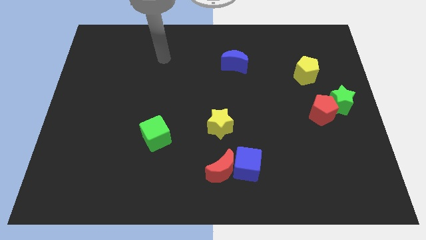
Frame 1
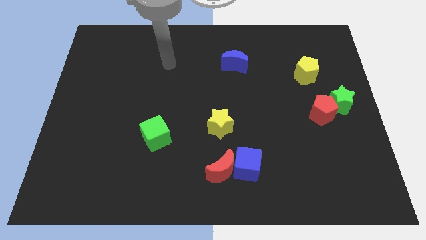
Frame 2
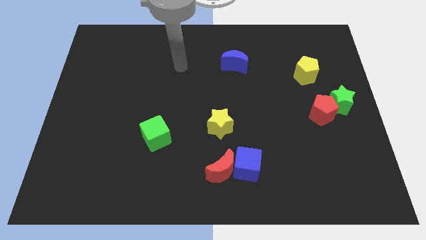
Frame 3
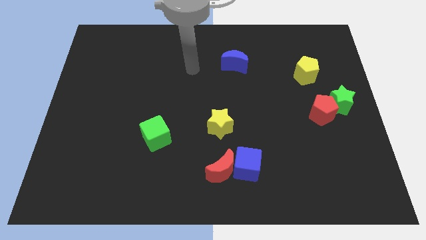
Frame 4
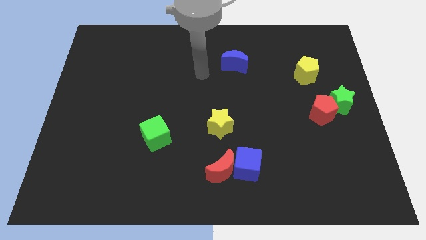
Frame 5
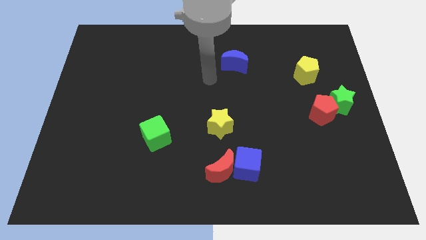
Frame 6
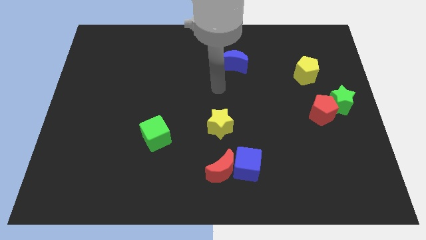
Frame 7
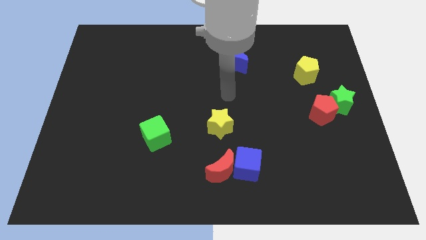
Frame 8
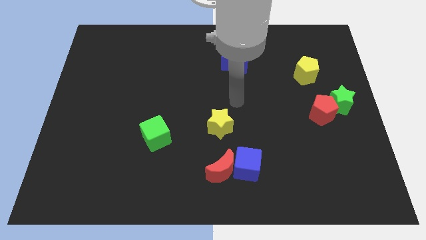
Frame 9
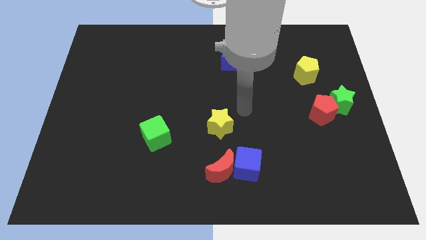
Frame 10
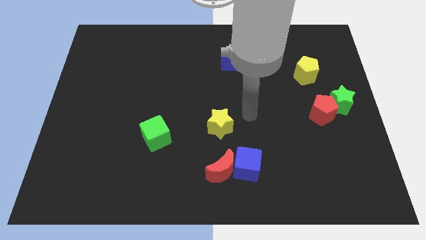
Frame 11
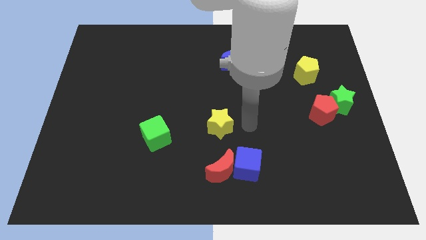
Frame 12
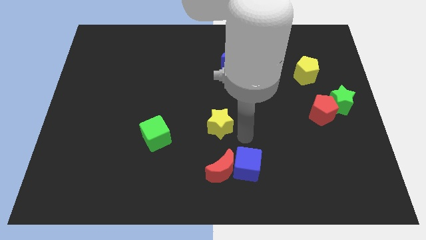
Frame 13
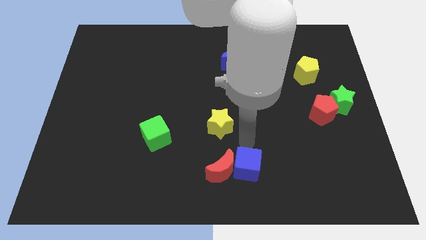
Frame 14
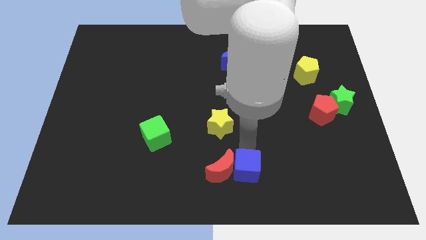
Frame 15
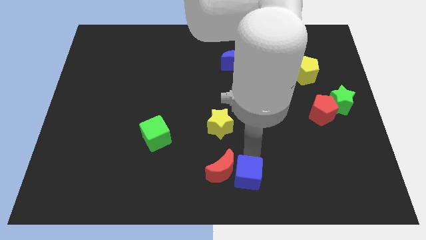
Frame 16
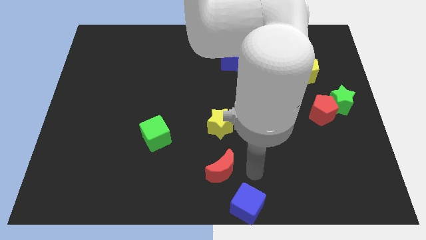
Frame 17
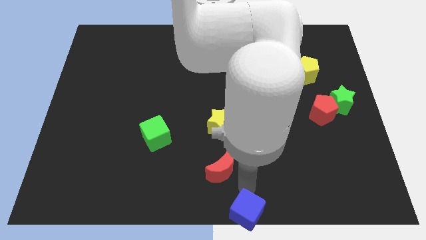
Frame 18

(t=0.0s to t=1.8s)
pull the red moon apart from the blue cube

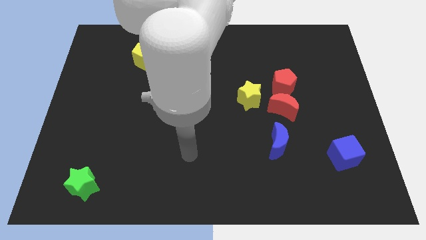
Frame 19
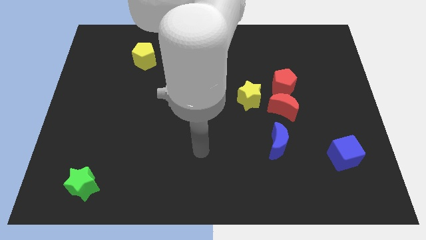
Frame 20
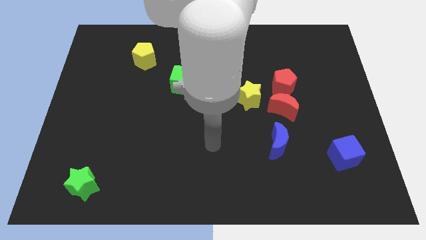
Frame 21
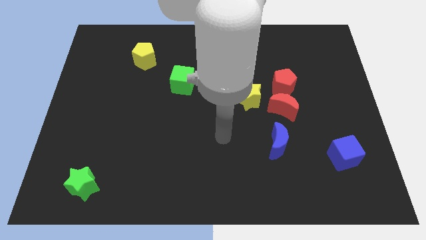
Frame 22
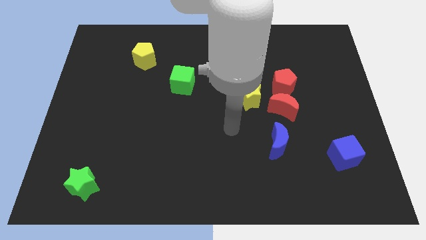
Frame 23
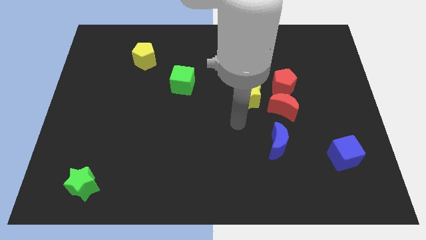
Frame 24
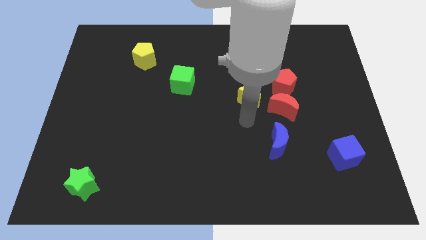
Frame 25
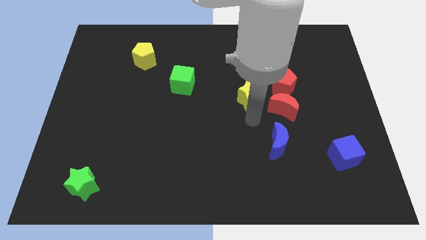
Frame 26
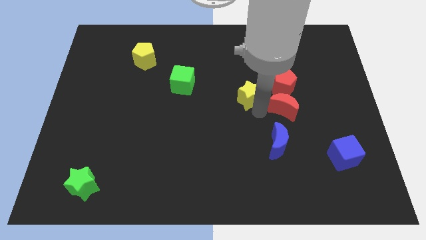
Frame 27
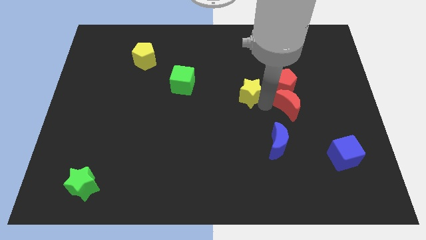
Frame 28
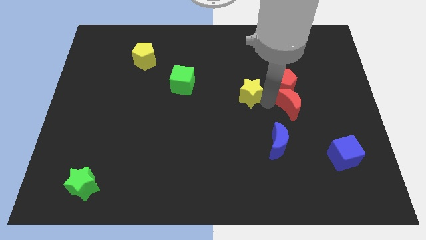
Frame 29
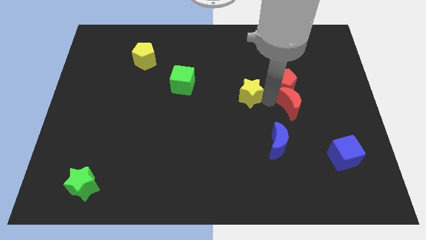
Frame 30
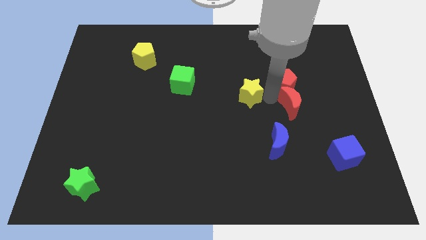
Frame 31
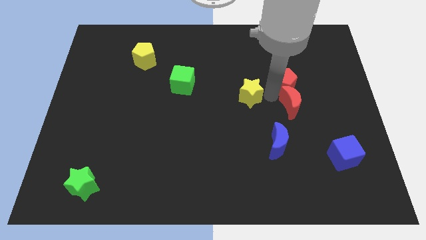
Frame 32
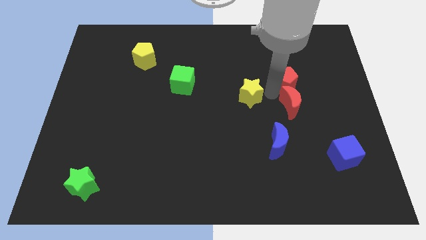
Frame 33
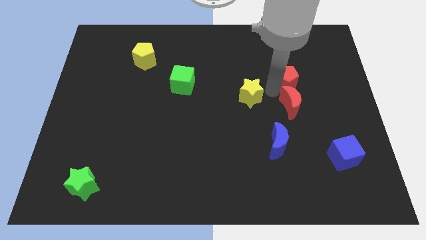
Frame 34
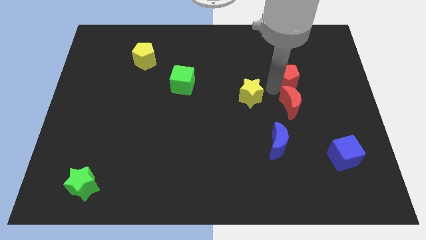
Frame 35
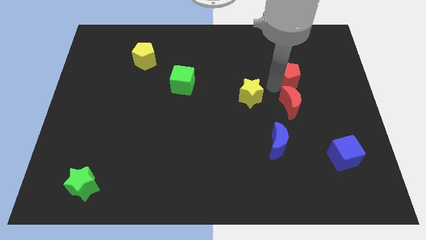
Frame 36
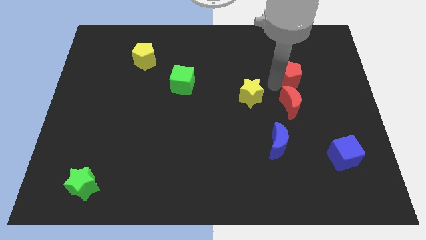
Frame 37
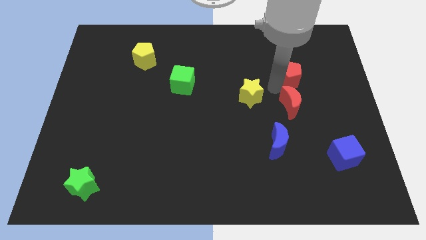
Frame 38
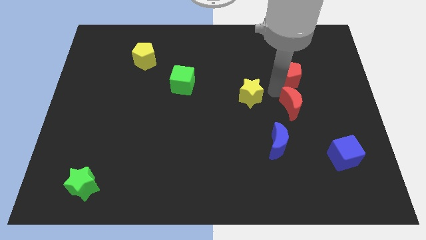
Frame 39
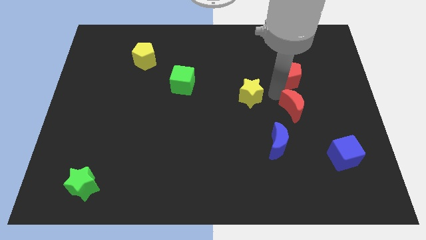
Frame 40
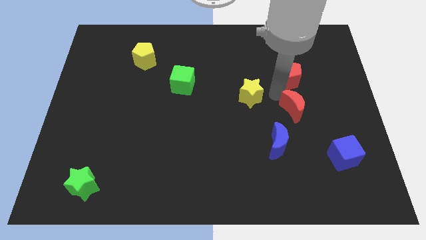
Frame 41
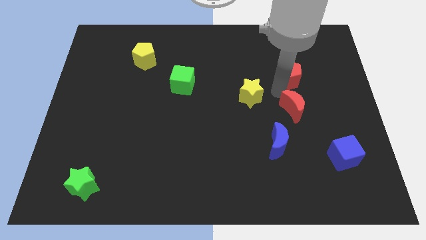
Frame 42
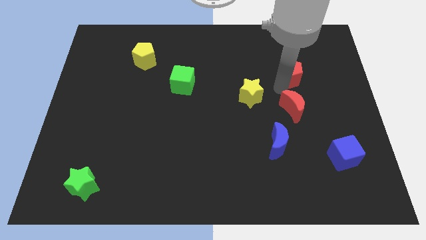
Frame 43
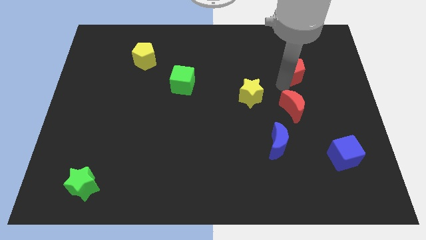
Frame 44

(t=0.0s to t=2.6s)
move the red pentagon away from the red moon and yellow star

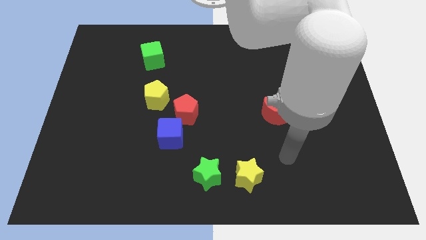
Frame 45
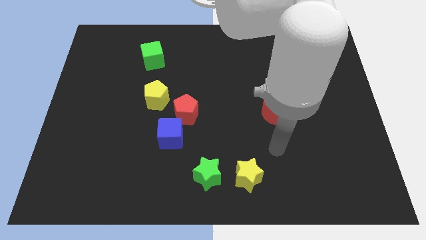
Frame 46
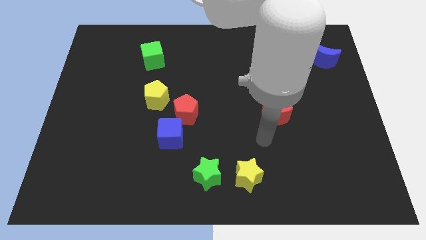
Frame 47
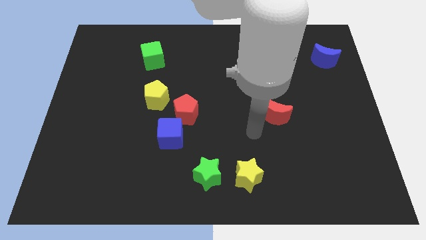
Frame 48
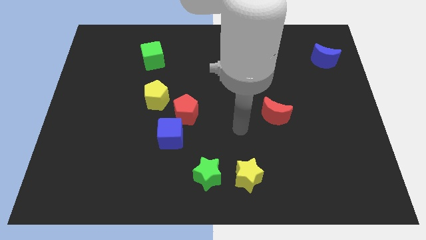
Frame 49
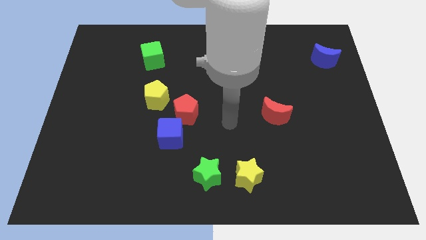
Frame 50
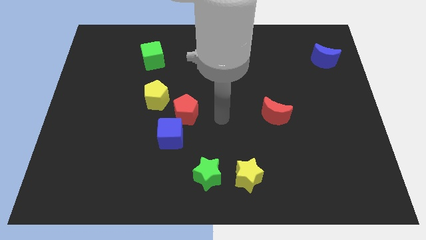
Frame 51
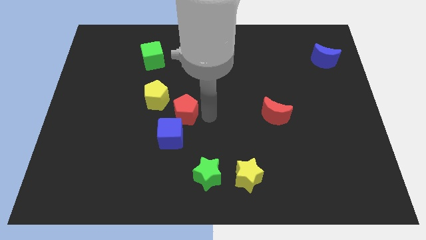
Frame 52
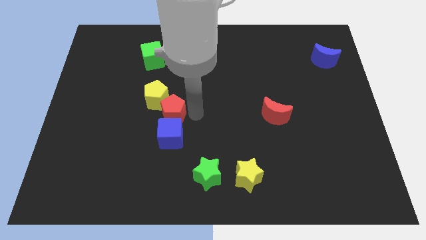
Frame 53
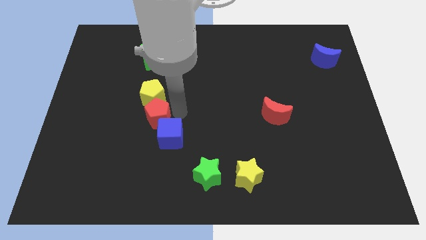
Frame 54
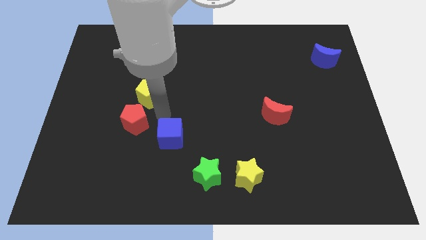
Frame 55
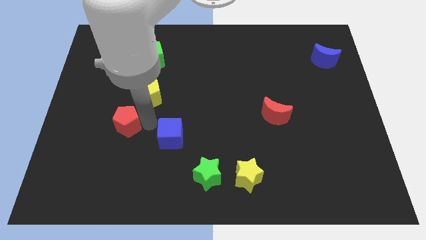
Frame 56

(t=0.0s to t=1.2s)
separate the blue cube from the red pentagon

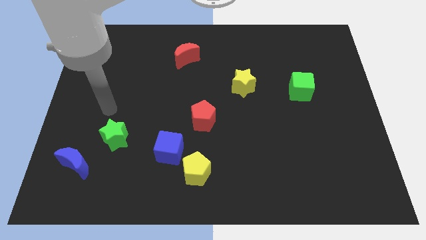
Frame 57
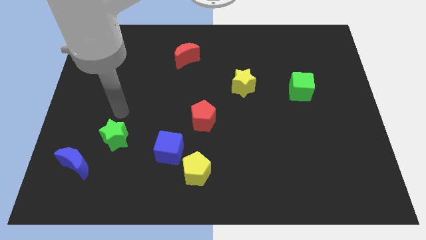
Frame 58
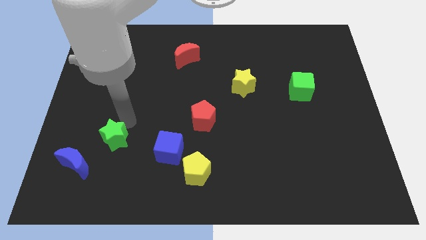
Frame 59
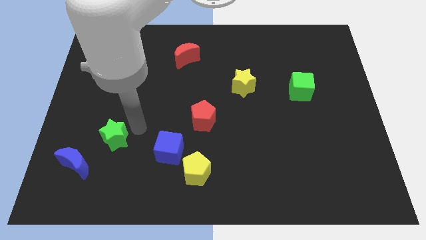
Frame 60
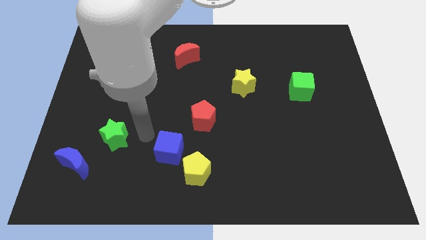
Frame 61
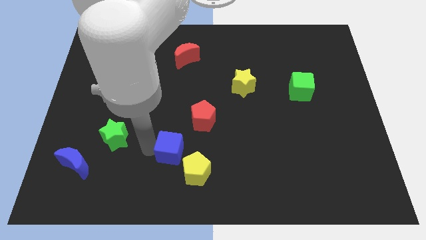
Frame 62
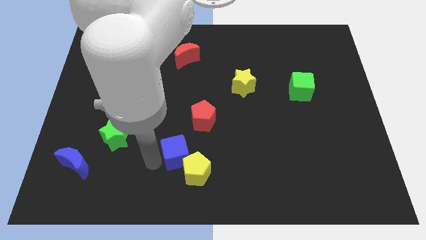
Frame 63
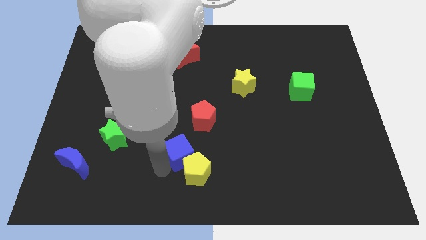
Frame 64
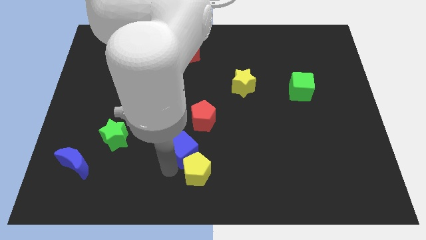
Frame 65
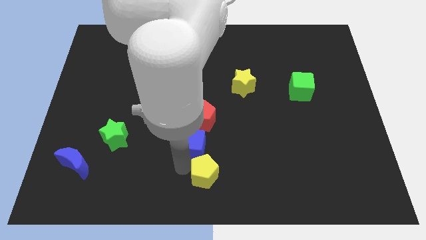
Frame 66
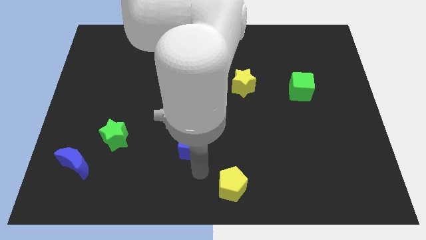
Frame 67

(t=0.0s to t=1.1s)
separate the blue cube from the yellow pentagon

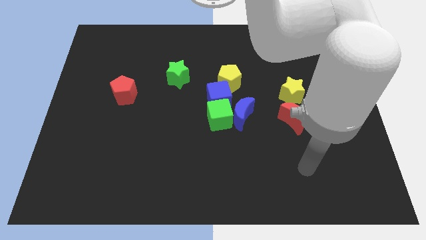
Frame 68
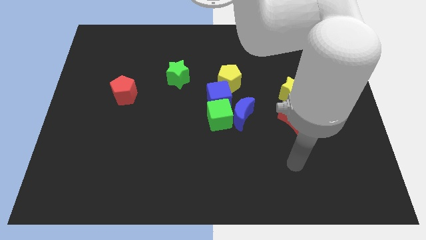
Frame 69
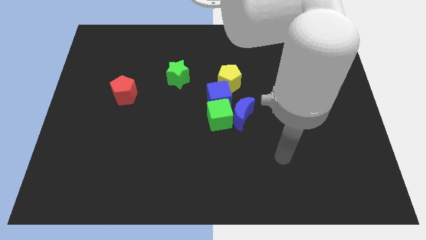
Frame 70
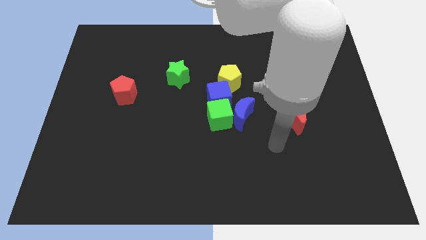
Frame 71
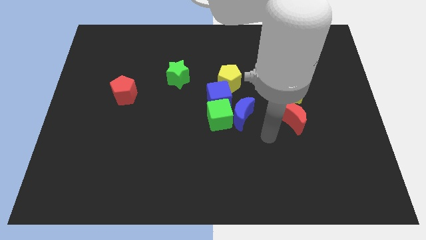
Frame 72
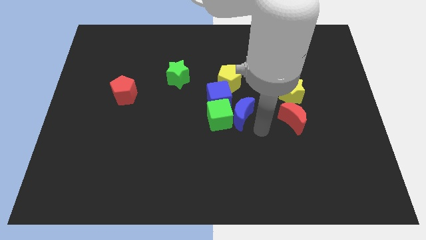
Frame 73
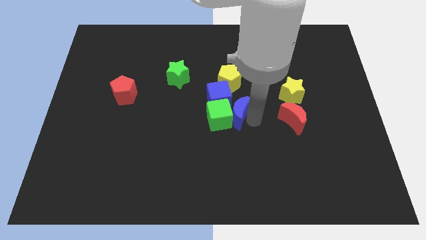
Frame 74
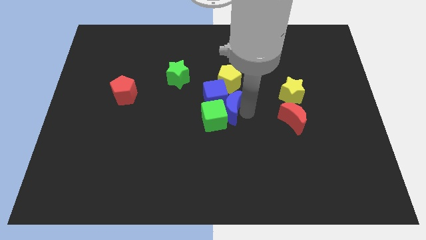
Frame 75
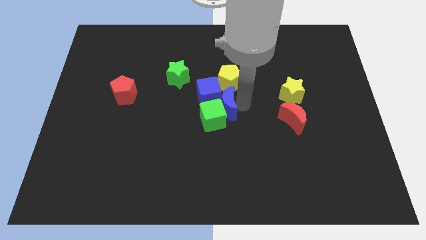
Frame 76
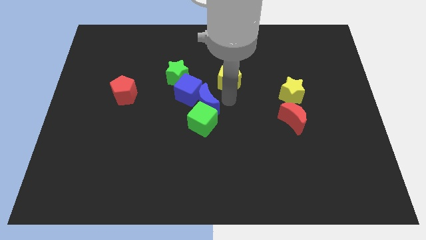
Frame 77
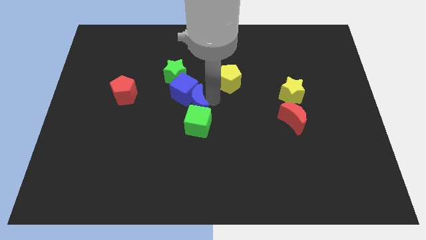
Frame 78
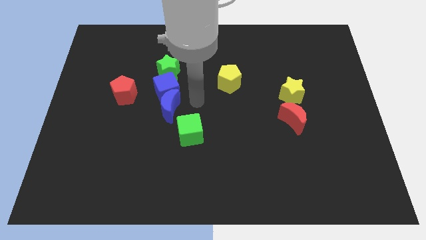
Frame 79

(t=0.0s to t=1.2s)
move the green cube away from the blue moon and blue cube

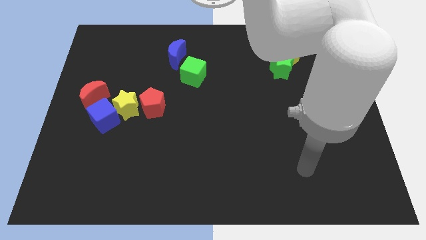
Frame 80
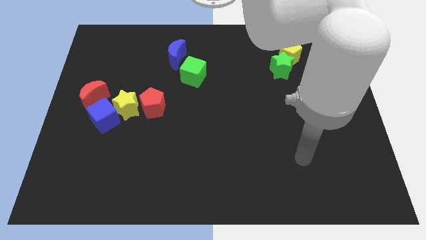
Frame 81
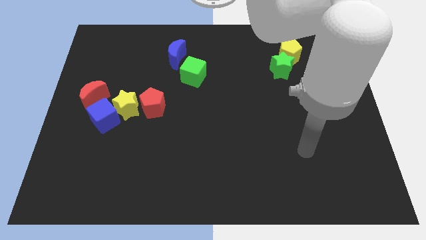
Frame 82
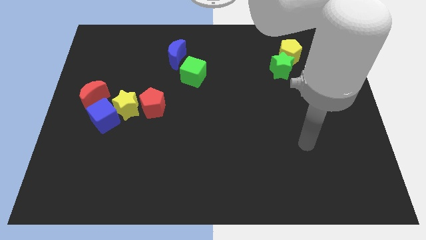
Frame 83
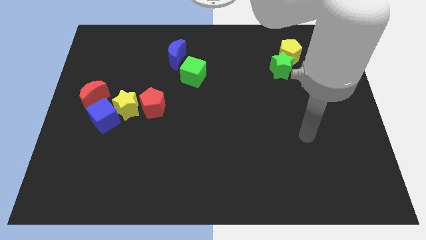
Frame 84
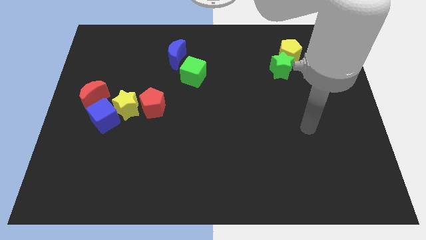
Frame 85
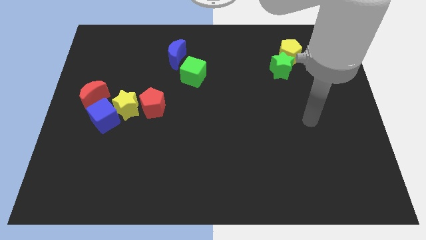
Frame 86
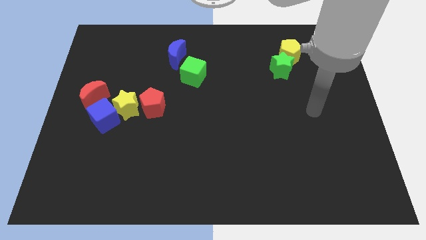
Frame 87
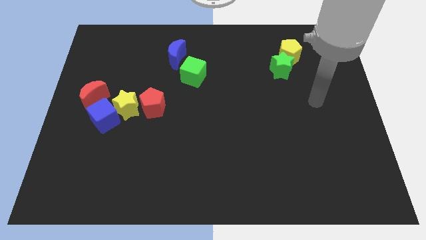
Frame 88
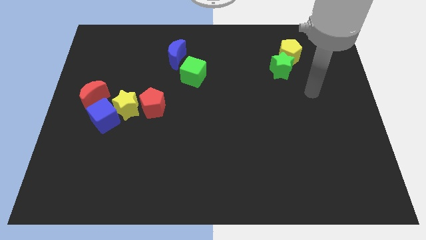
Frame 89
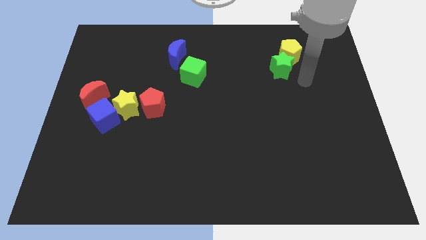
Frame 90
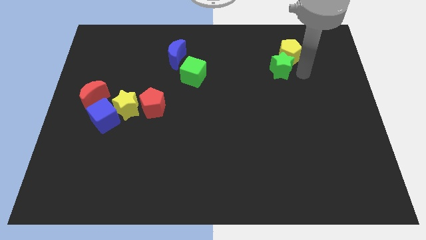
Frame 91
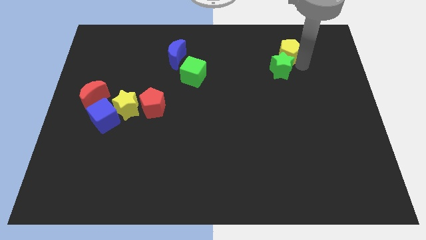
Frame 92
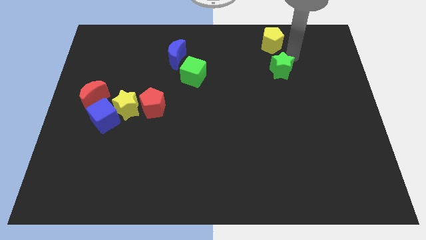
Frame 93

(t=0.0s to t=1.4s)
pull the green star apart from the yellow pentagon
